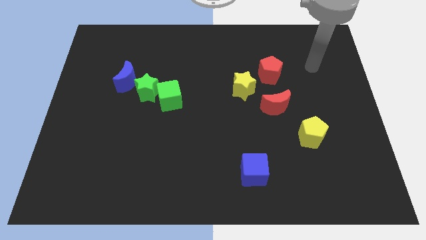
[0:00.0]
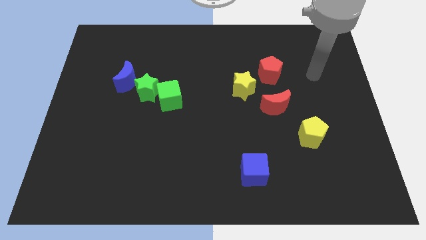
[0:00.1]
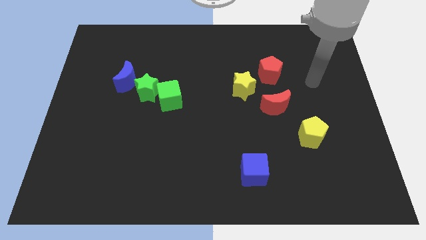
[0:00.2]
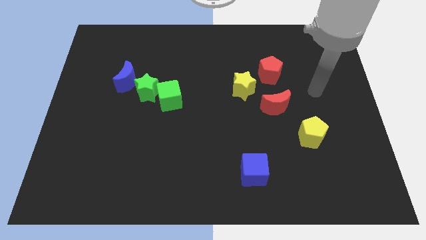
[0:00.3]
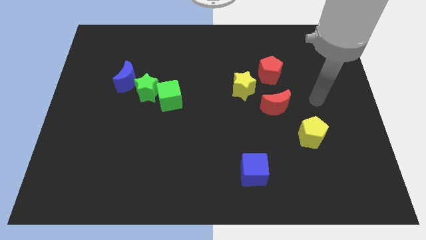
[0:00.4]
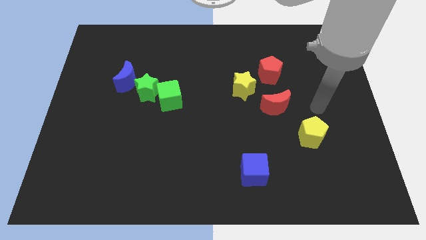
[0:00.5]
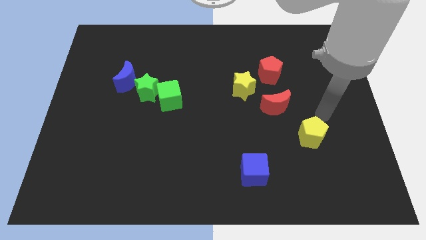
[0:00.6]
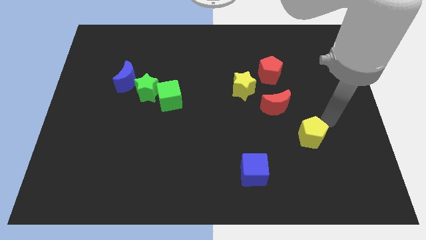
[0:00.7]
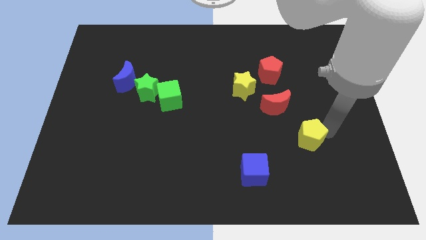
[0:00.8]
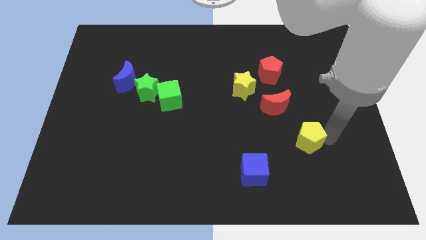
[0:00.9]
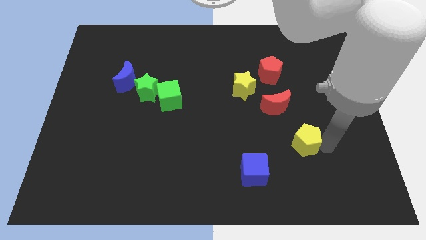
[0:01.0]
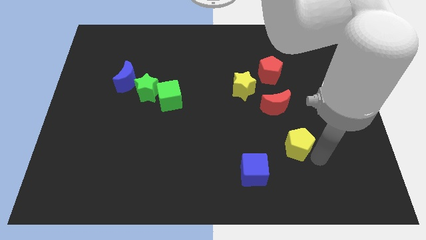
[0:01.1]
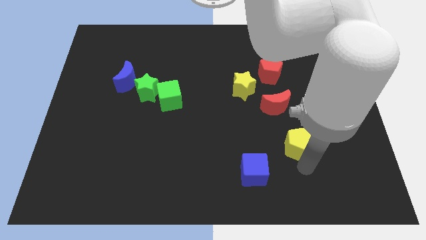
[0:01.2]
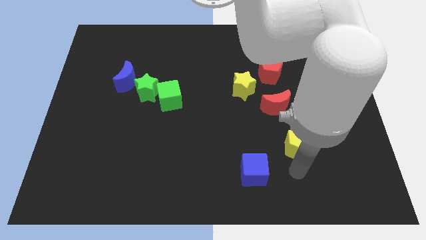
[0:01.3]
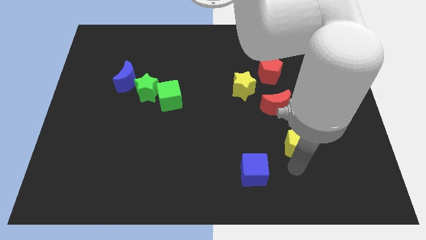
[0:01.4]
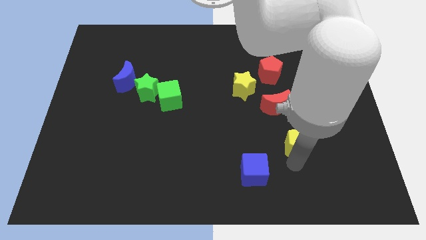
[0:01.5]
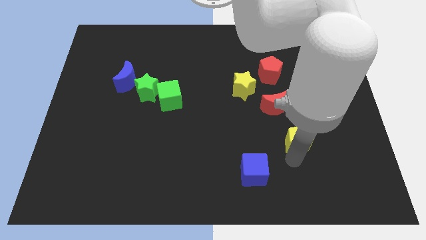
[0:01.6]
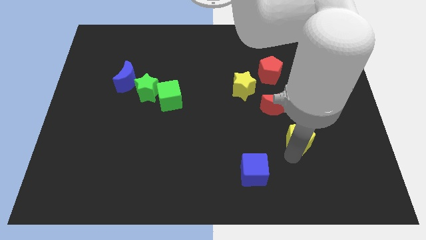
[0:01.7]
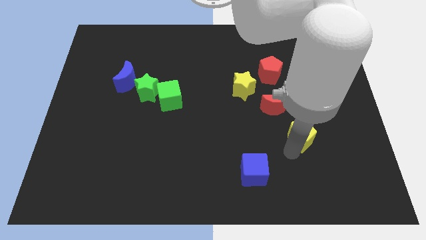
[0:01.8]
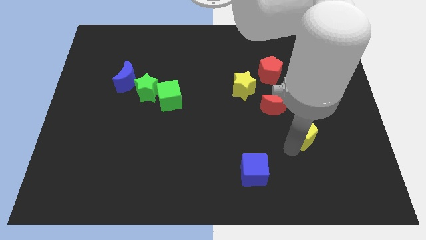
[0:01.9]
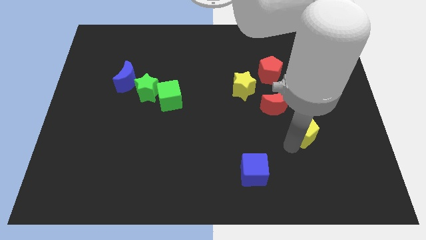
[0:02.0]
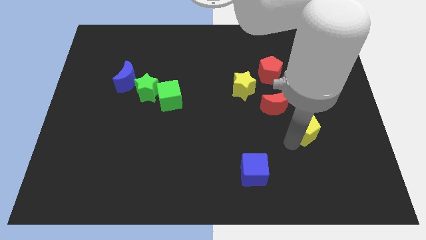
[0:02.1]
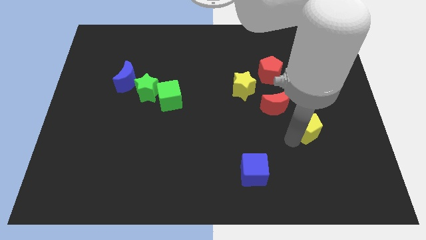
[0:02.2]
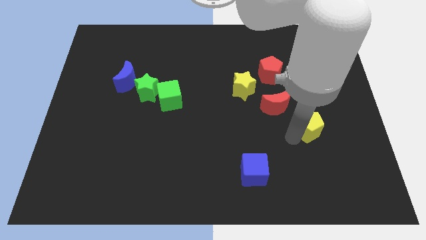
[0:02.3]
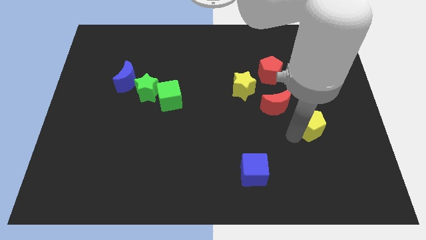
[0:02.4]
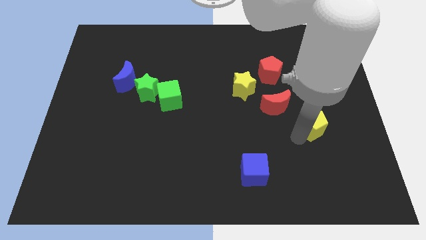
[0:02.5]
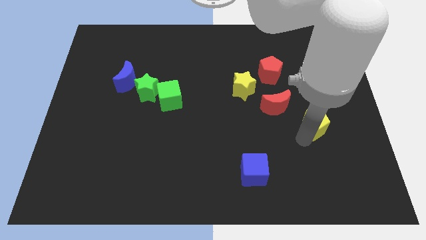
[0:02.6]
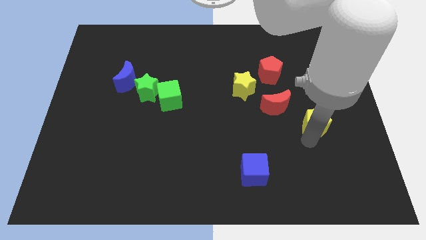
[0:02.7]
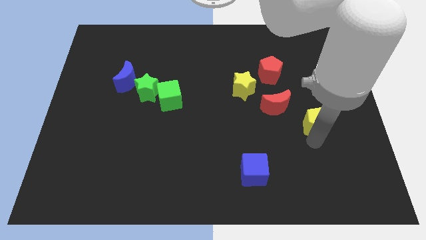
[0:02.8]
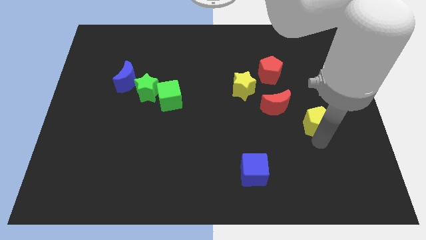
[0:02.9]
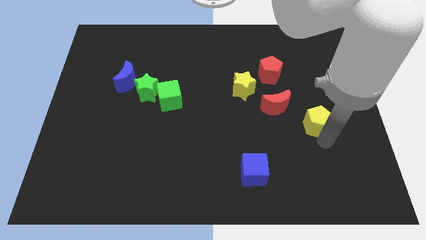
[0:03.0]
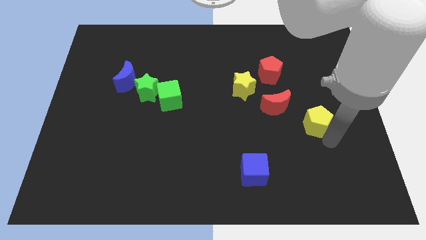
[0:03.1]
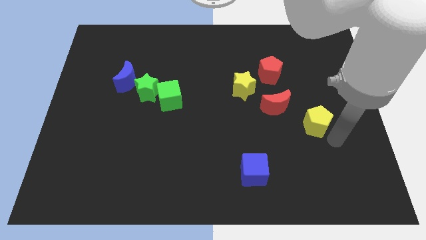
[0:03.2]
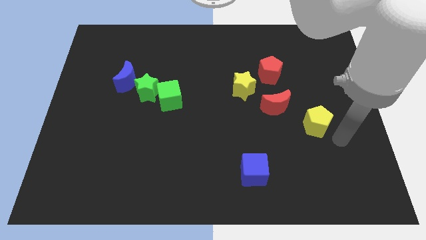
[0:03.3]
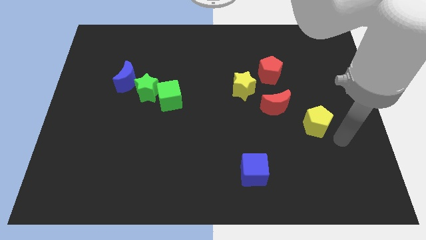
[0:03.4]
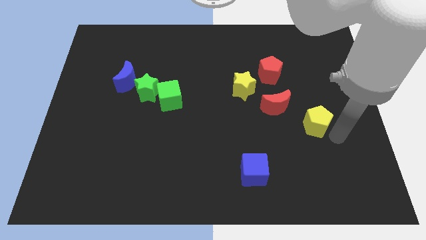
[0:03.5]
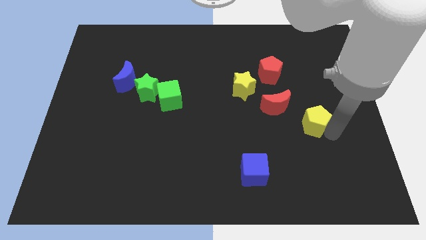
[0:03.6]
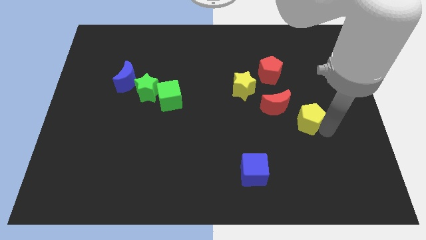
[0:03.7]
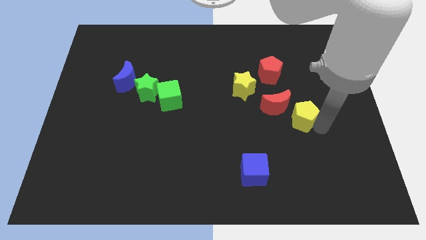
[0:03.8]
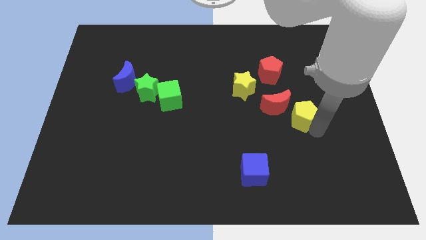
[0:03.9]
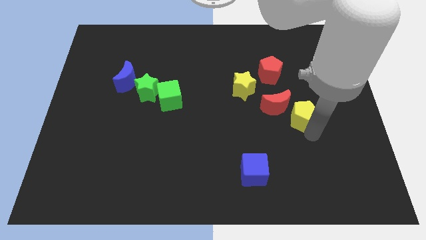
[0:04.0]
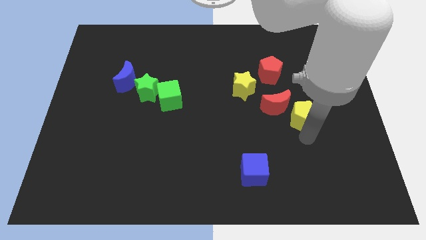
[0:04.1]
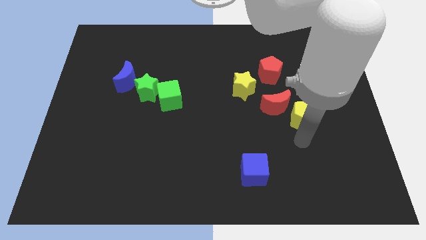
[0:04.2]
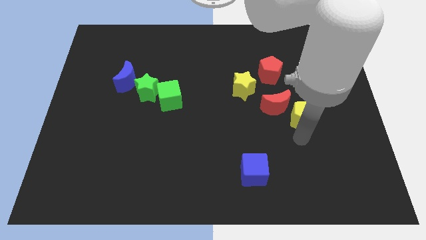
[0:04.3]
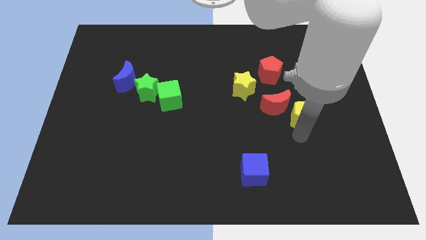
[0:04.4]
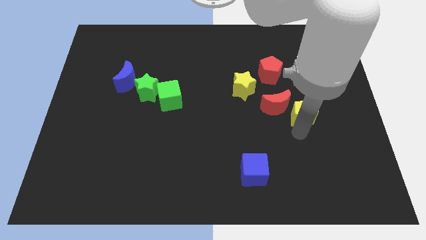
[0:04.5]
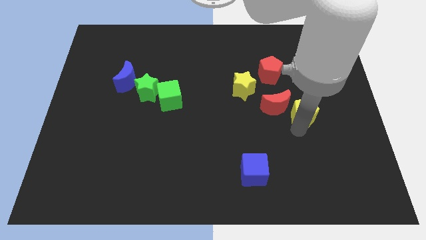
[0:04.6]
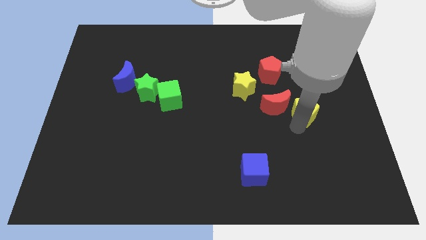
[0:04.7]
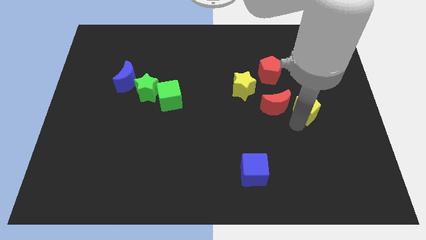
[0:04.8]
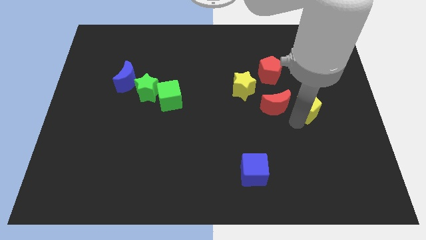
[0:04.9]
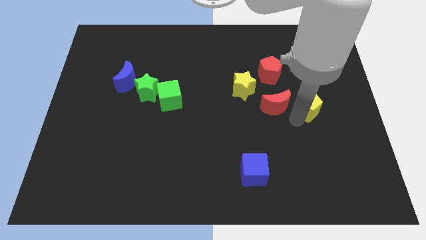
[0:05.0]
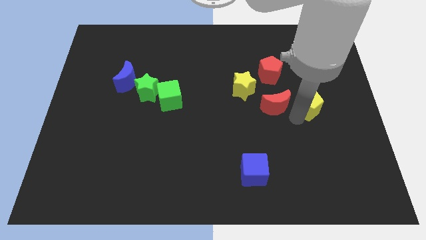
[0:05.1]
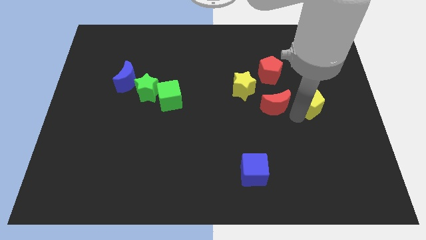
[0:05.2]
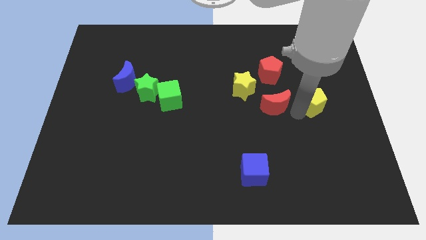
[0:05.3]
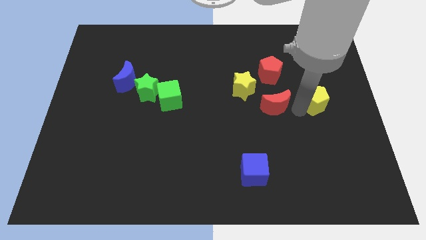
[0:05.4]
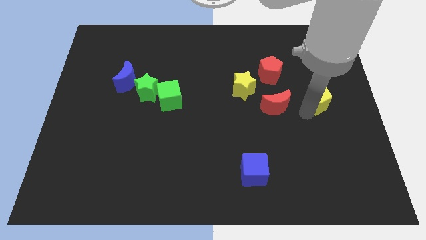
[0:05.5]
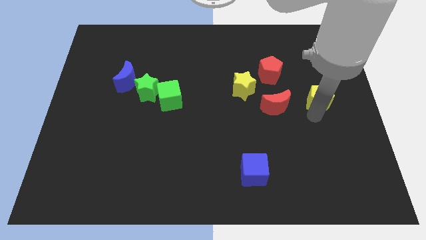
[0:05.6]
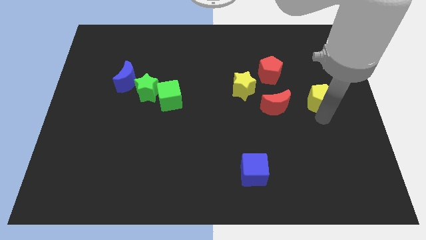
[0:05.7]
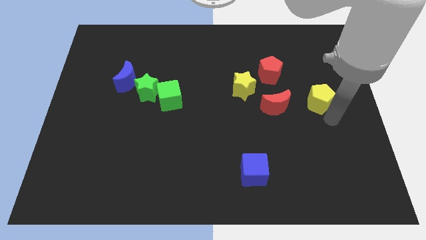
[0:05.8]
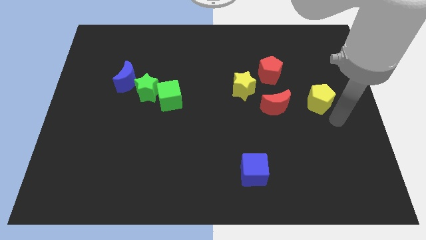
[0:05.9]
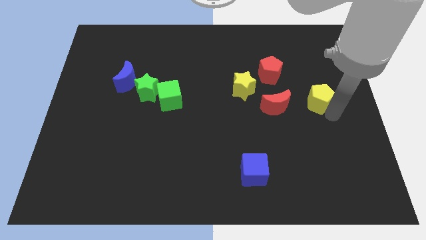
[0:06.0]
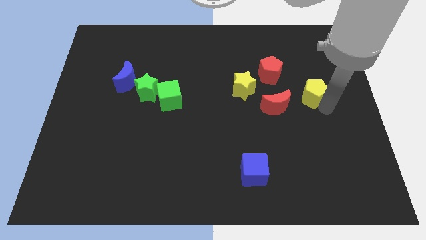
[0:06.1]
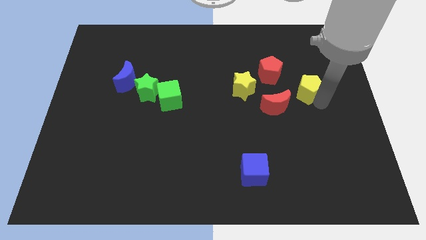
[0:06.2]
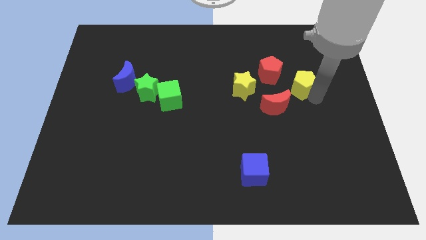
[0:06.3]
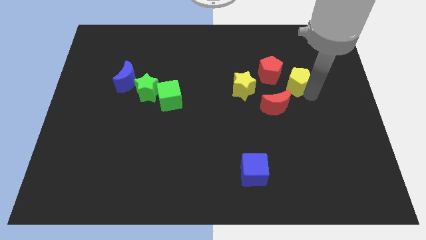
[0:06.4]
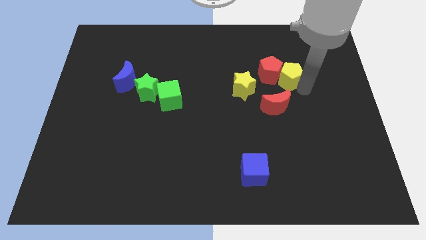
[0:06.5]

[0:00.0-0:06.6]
slide the yellow pentagon to the top of the red moon

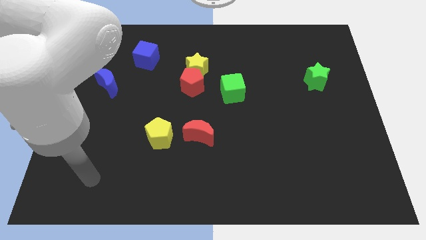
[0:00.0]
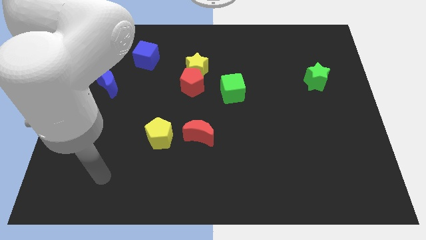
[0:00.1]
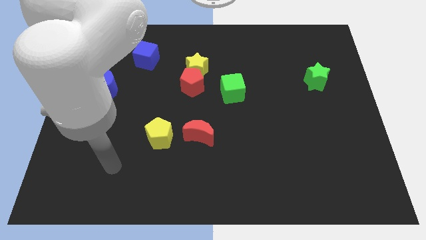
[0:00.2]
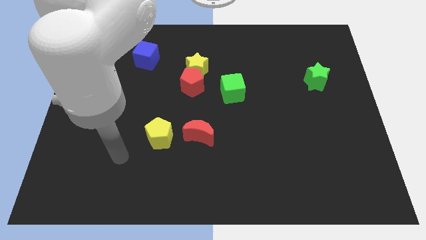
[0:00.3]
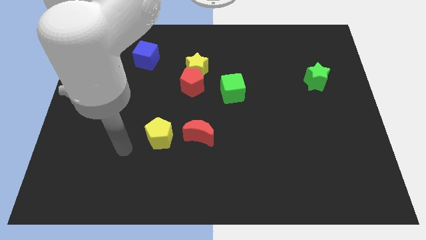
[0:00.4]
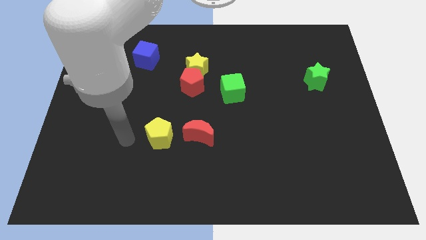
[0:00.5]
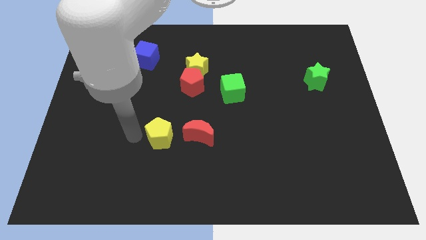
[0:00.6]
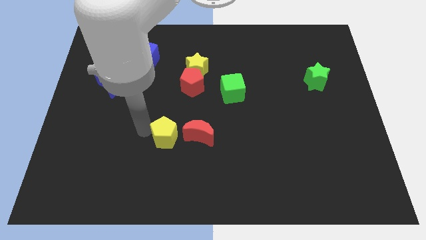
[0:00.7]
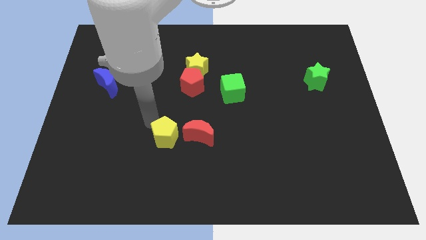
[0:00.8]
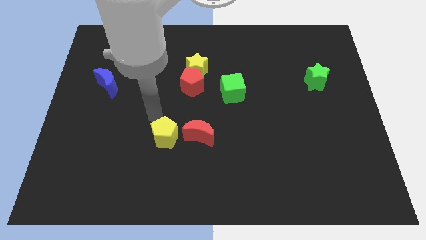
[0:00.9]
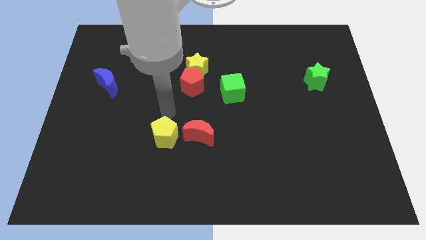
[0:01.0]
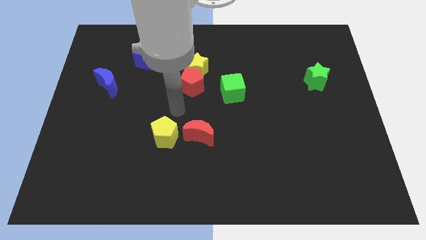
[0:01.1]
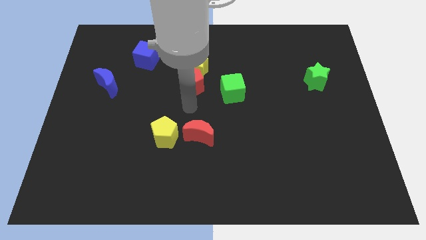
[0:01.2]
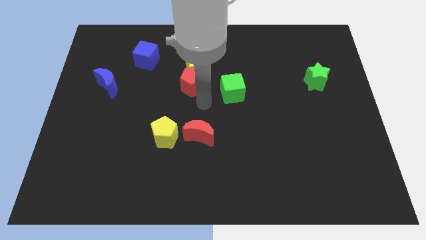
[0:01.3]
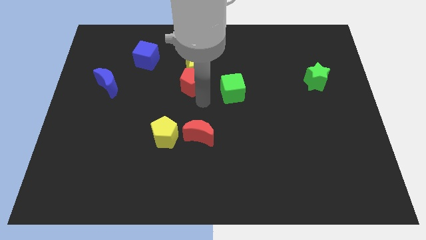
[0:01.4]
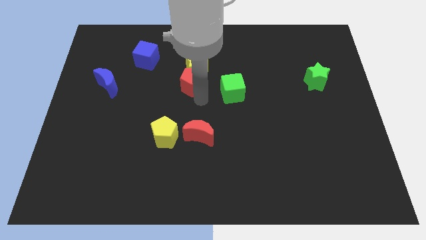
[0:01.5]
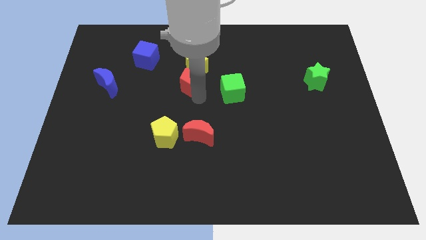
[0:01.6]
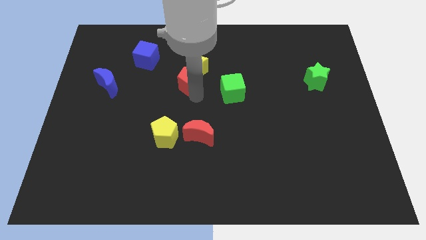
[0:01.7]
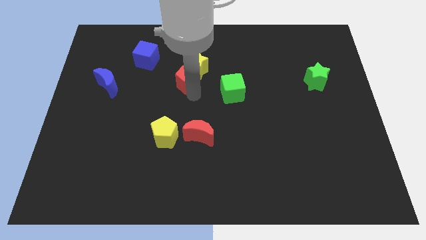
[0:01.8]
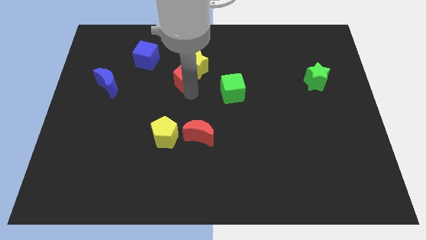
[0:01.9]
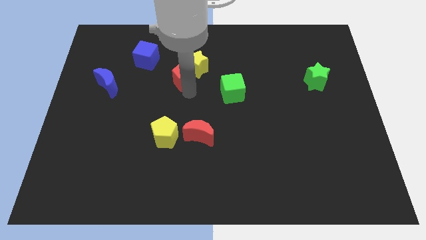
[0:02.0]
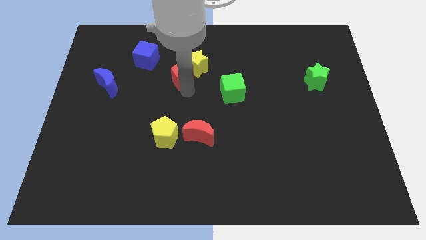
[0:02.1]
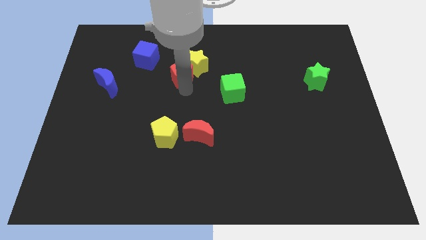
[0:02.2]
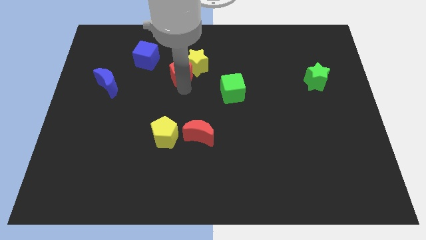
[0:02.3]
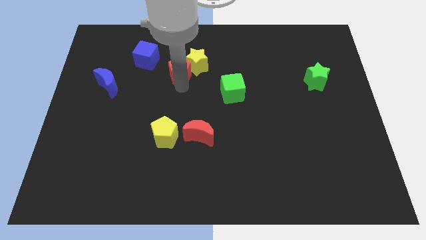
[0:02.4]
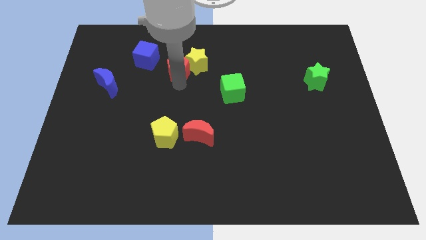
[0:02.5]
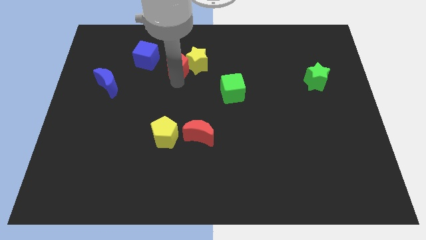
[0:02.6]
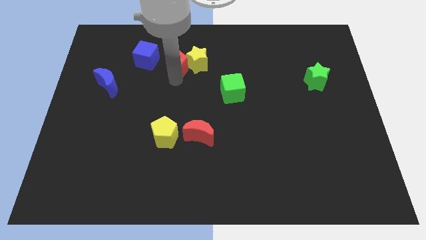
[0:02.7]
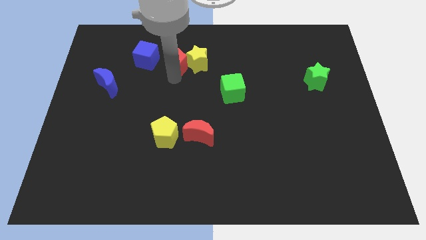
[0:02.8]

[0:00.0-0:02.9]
put the red pentagon diagonally up and to the left of the yellow star
